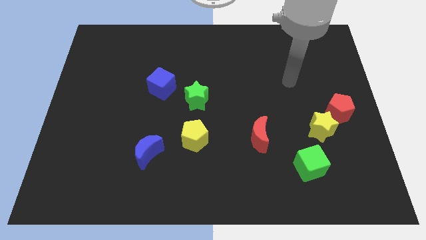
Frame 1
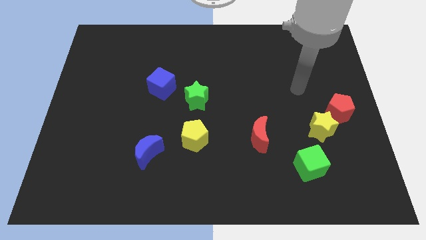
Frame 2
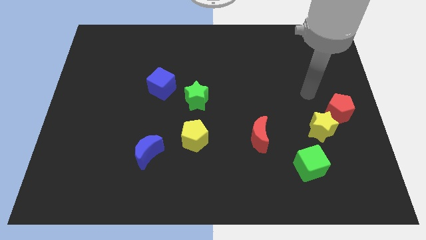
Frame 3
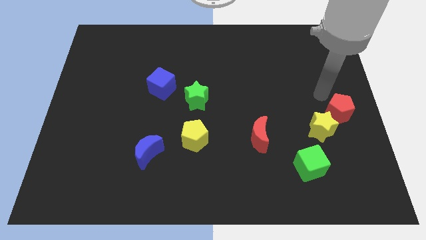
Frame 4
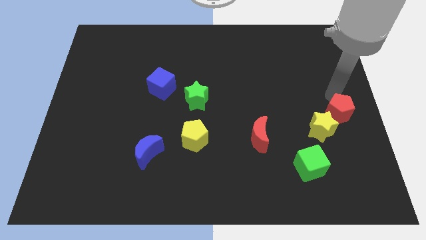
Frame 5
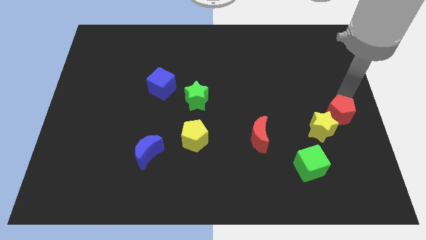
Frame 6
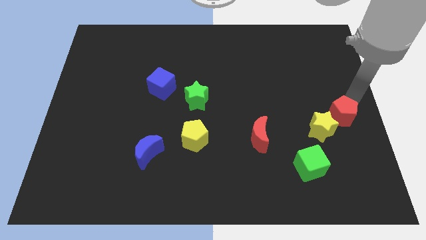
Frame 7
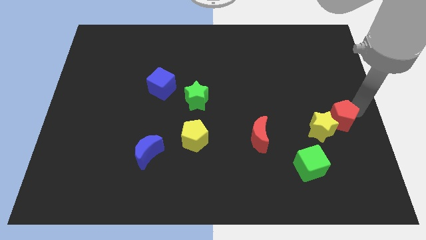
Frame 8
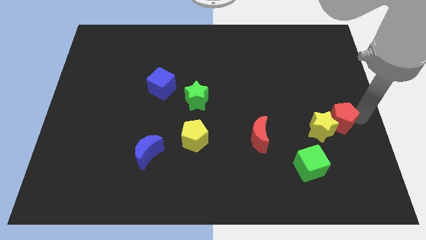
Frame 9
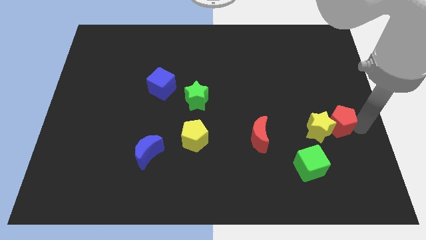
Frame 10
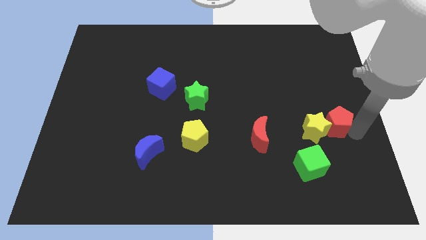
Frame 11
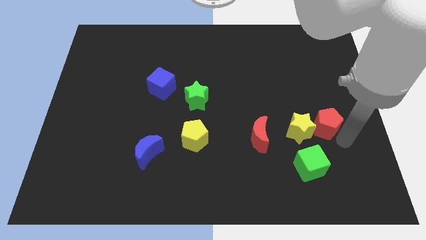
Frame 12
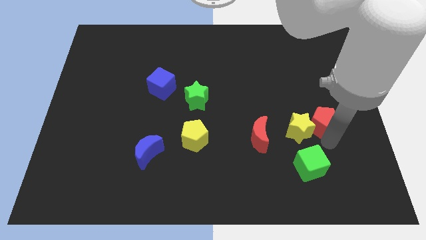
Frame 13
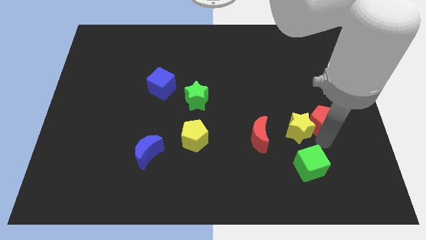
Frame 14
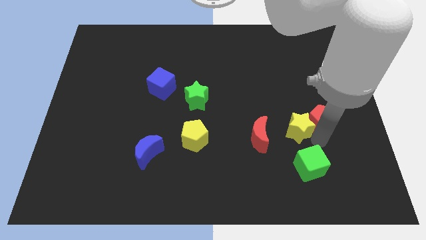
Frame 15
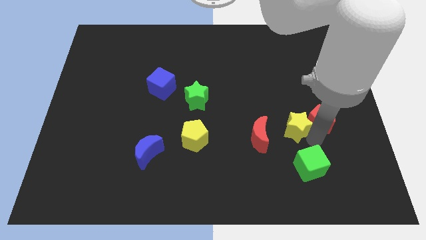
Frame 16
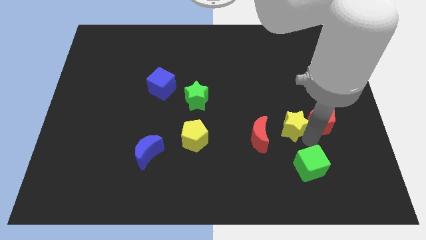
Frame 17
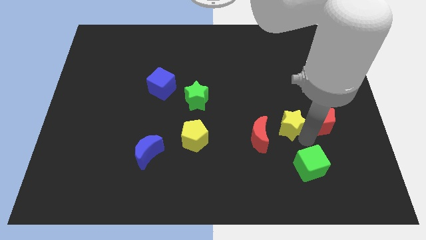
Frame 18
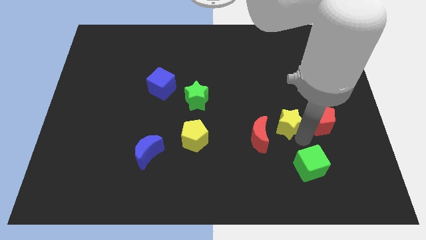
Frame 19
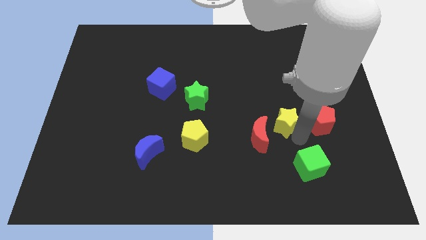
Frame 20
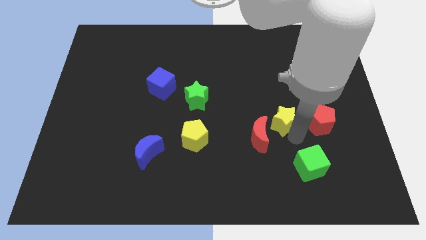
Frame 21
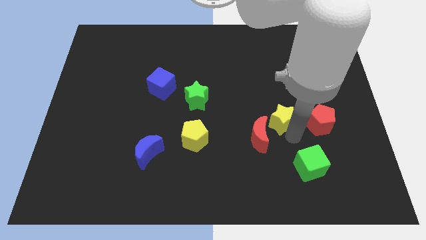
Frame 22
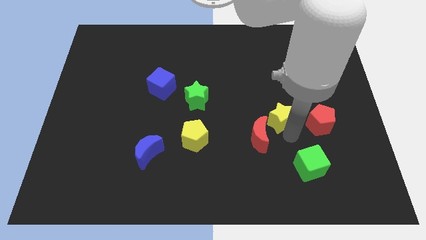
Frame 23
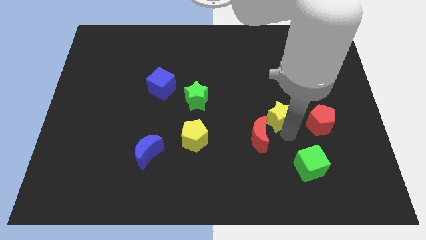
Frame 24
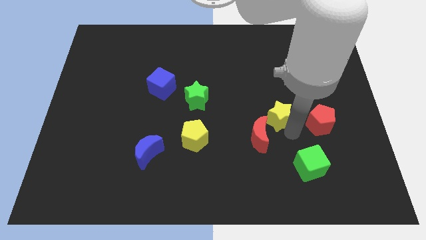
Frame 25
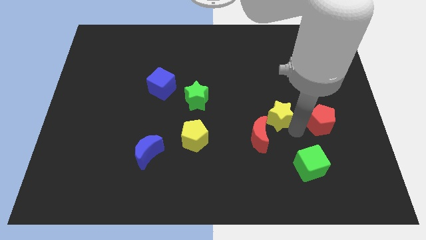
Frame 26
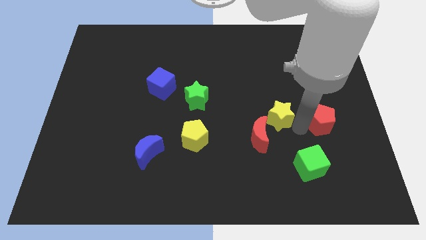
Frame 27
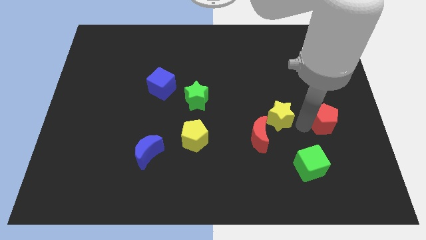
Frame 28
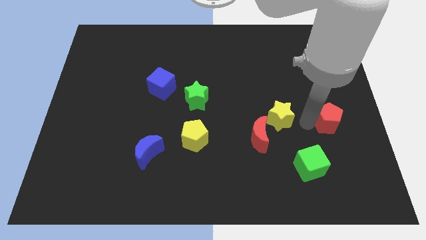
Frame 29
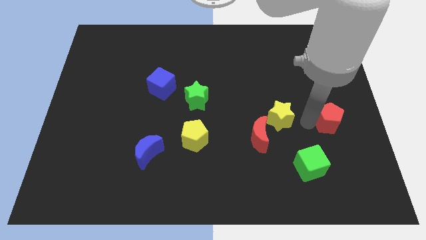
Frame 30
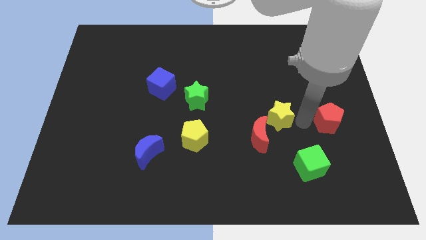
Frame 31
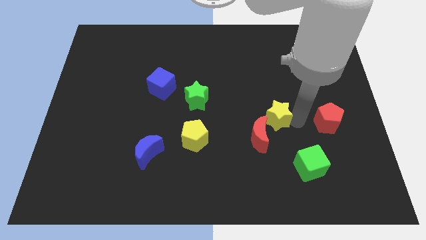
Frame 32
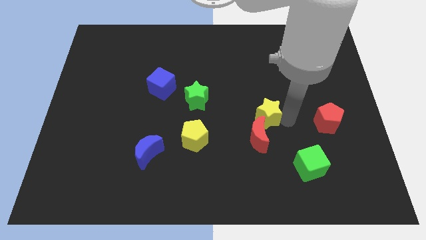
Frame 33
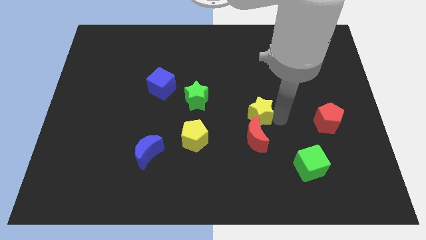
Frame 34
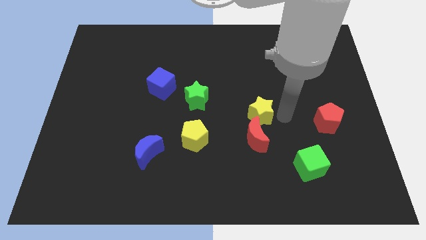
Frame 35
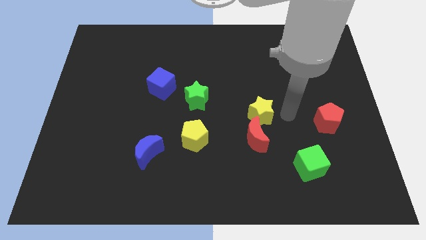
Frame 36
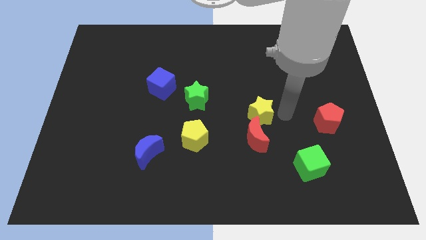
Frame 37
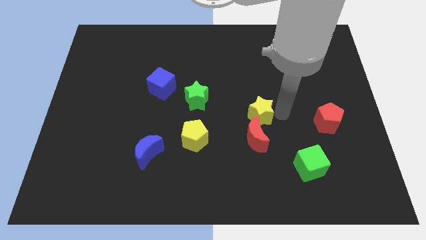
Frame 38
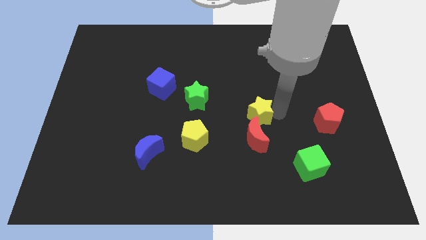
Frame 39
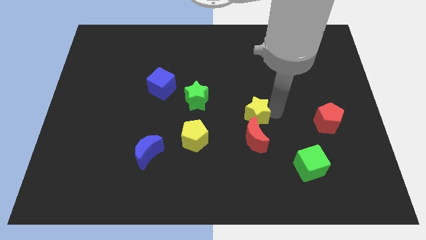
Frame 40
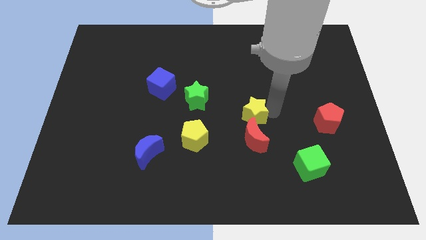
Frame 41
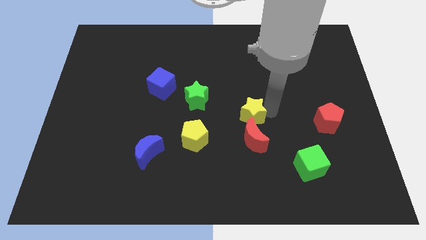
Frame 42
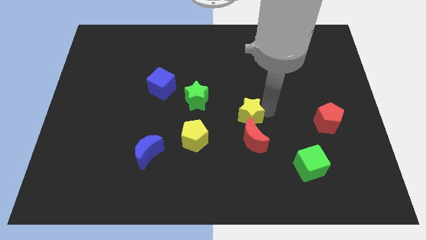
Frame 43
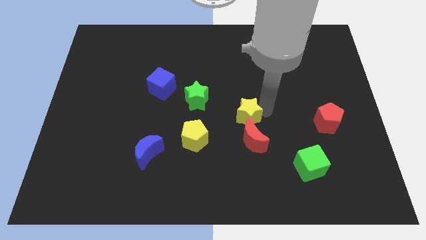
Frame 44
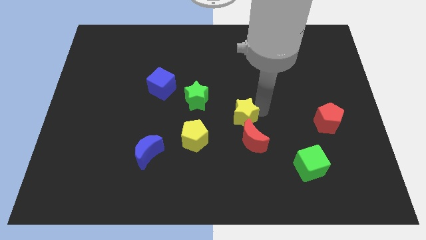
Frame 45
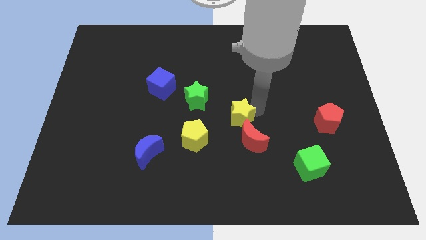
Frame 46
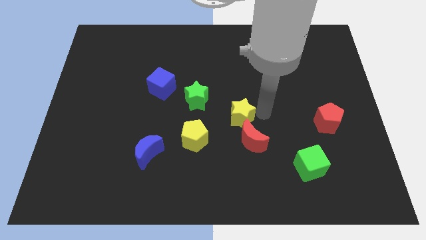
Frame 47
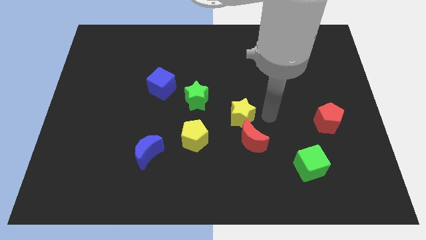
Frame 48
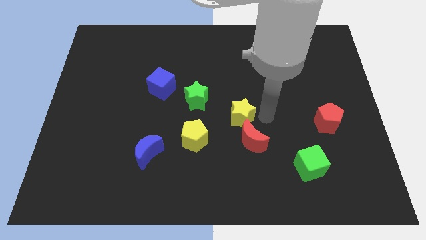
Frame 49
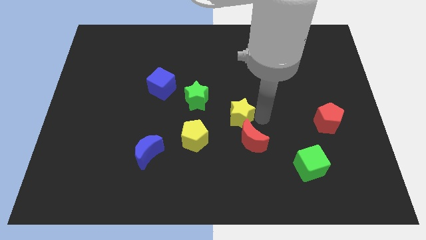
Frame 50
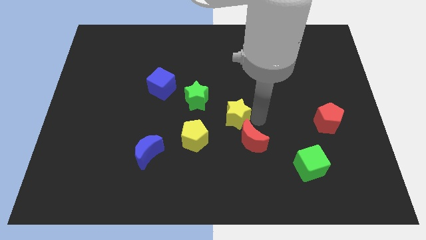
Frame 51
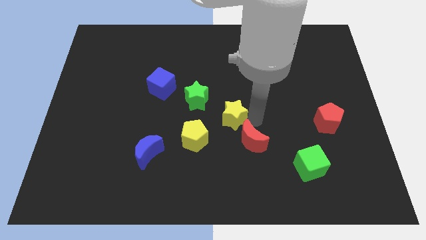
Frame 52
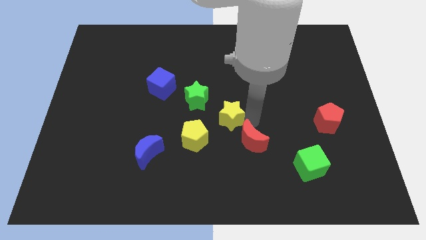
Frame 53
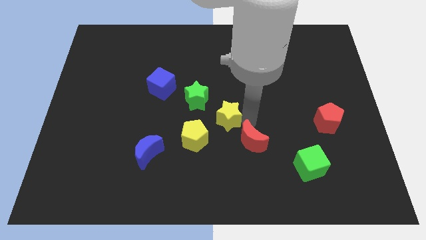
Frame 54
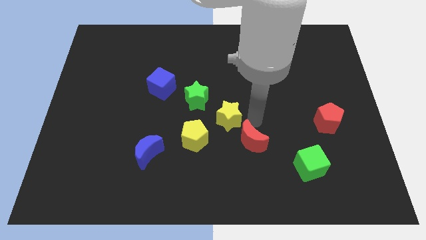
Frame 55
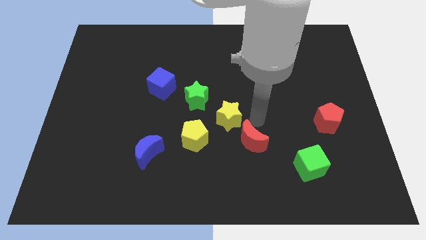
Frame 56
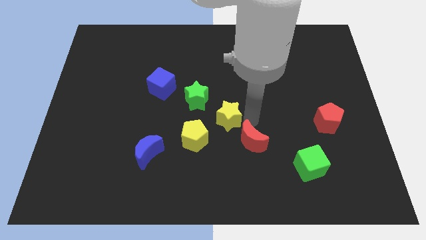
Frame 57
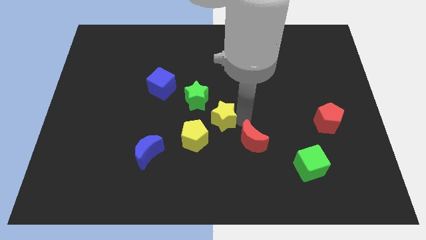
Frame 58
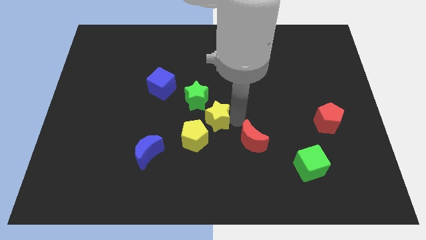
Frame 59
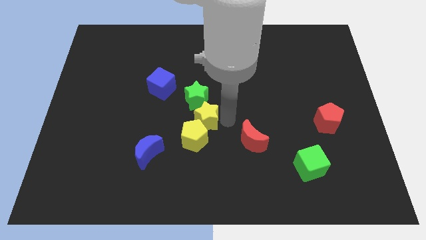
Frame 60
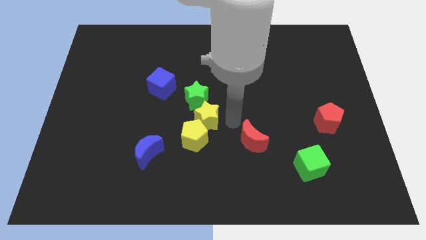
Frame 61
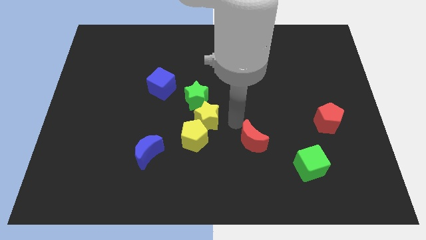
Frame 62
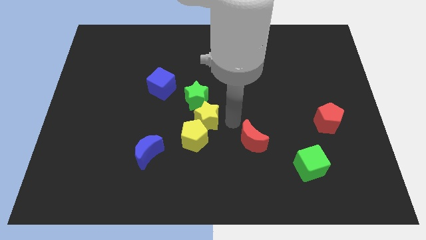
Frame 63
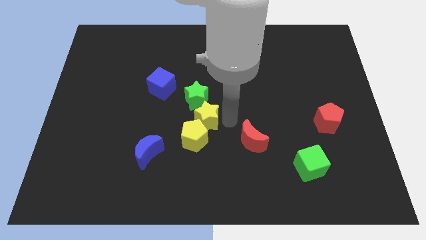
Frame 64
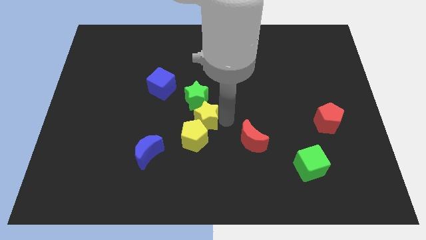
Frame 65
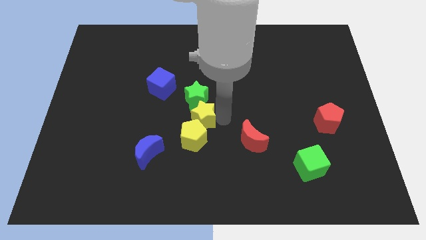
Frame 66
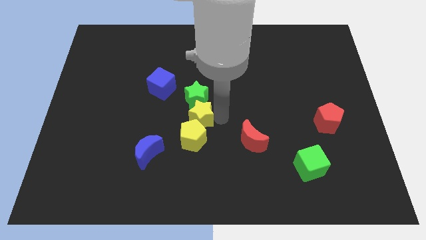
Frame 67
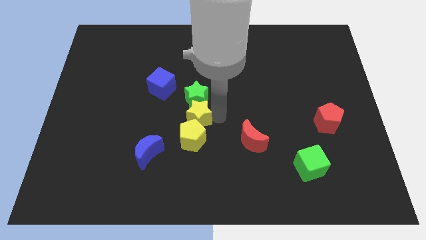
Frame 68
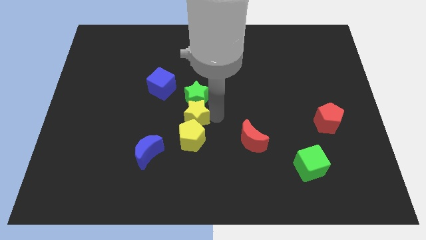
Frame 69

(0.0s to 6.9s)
push the yellow star to the bottom right of the blue cube
